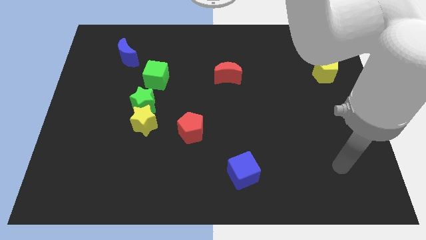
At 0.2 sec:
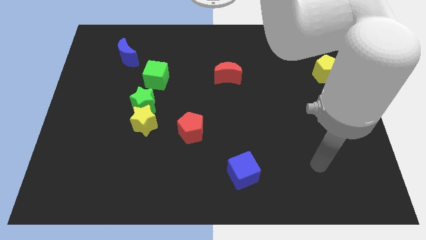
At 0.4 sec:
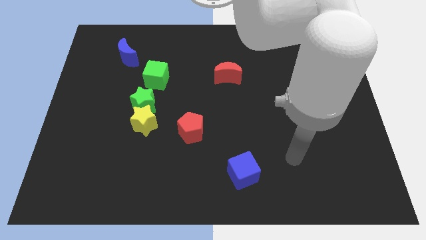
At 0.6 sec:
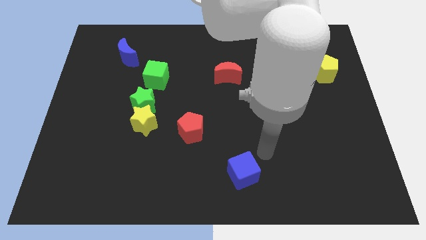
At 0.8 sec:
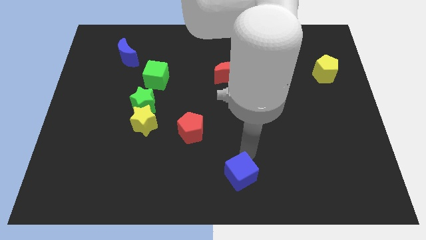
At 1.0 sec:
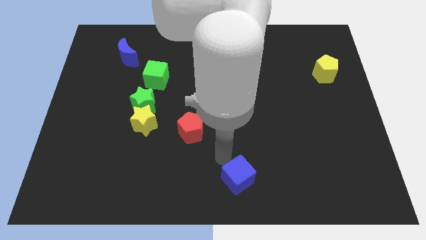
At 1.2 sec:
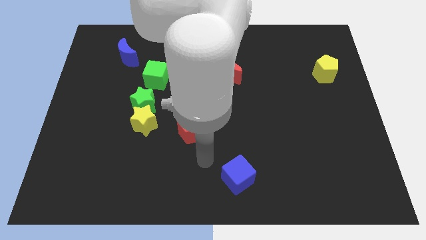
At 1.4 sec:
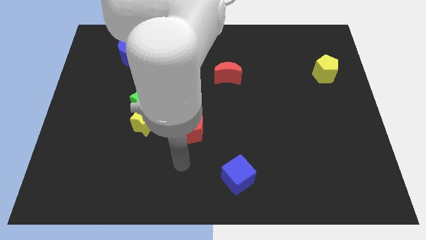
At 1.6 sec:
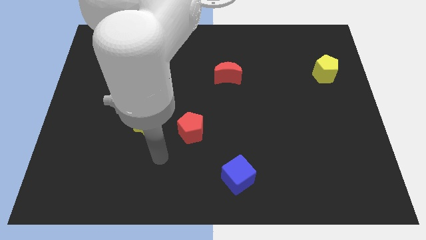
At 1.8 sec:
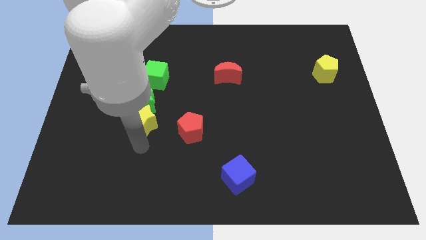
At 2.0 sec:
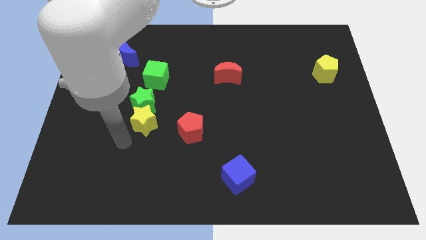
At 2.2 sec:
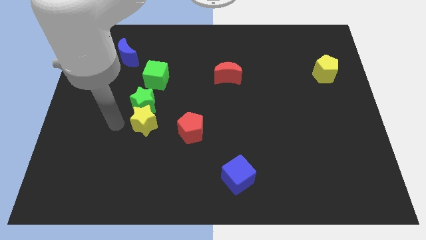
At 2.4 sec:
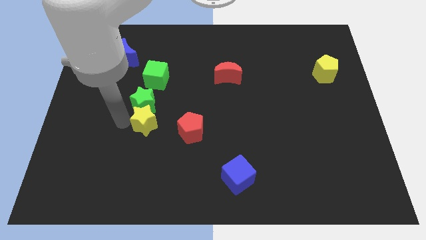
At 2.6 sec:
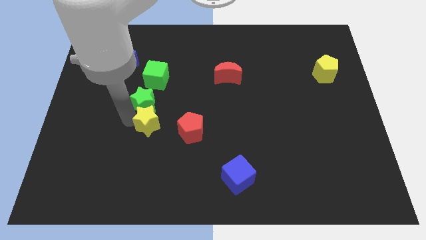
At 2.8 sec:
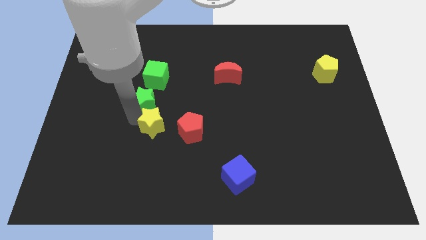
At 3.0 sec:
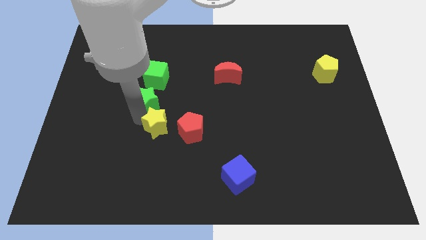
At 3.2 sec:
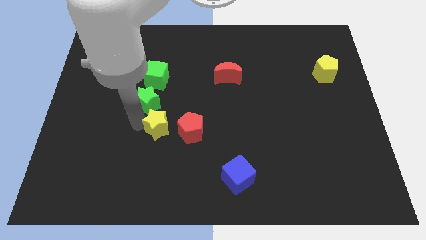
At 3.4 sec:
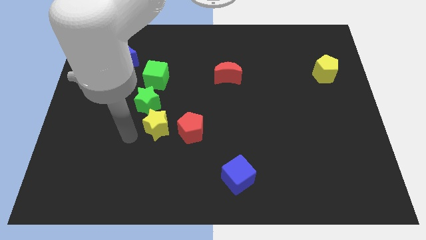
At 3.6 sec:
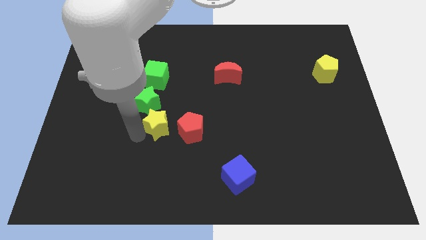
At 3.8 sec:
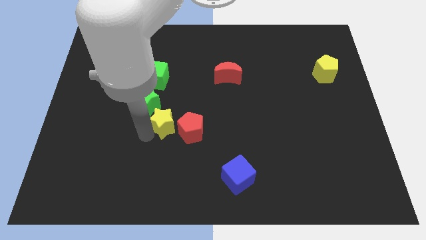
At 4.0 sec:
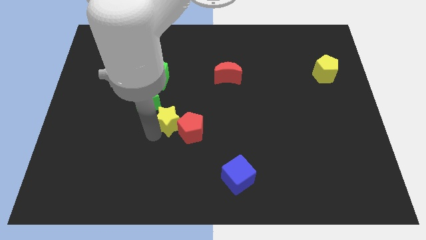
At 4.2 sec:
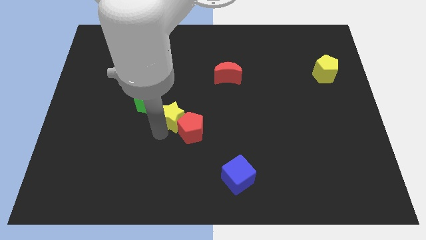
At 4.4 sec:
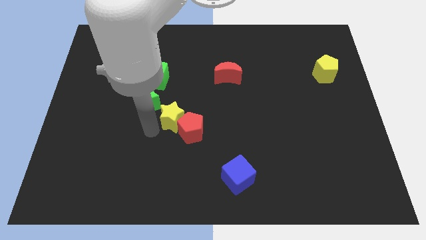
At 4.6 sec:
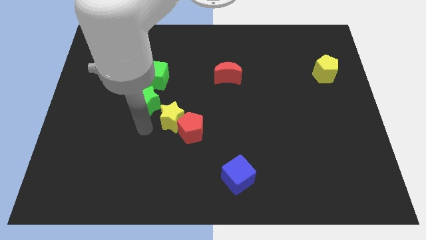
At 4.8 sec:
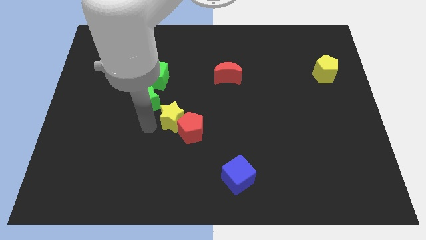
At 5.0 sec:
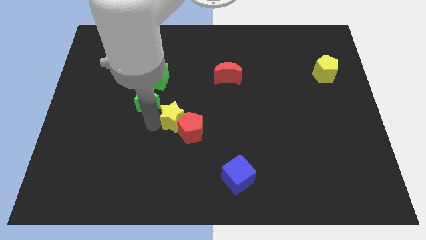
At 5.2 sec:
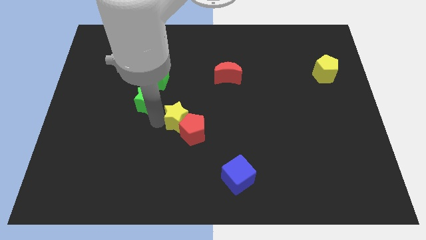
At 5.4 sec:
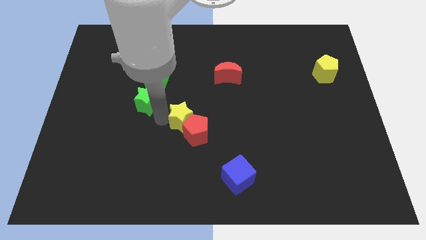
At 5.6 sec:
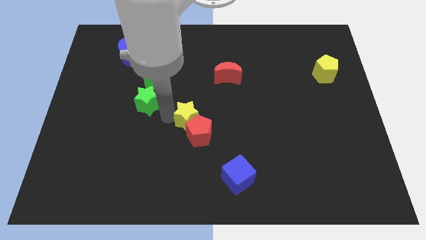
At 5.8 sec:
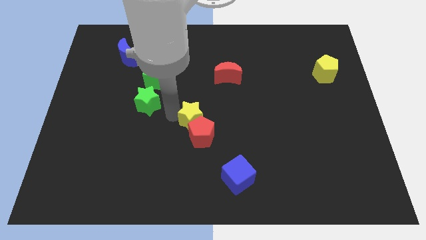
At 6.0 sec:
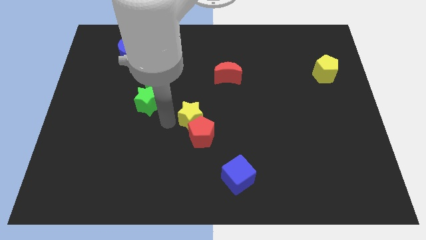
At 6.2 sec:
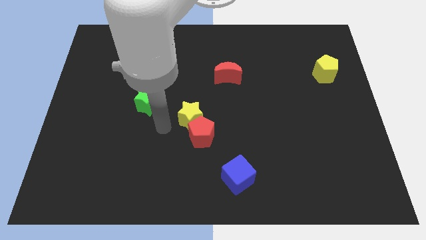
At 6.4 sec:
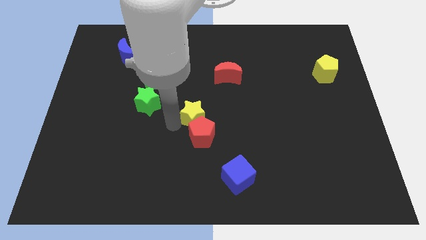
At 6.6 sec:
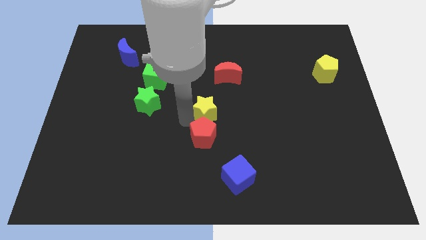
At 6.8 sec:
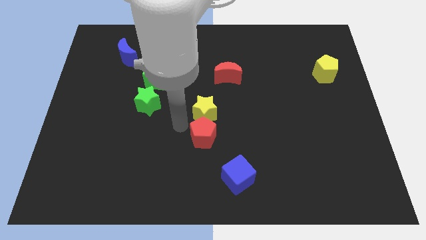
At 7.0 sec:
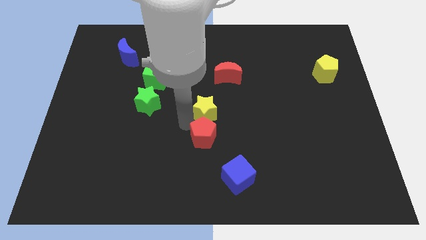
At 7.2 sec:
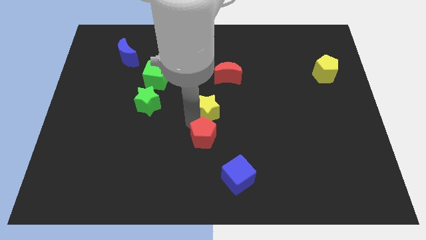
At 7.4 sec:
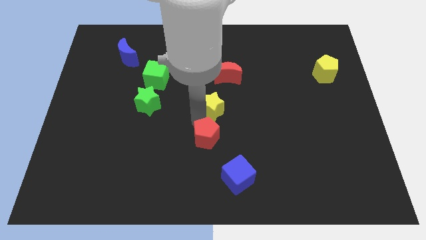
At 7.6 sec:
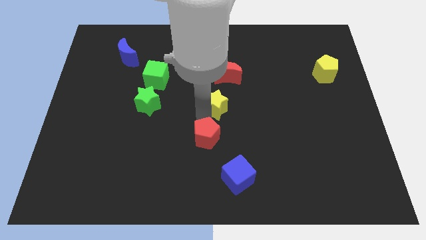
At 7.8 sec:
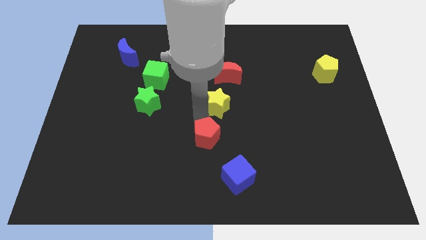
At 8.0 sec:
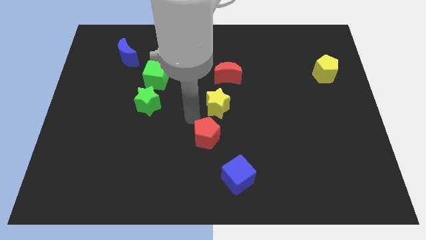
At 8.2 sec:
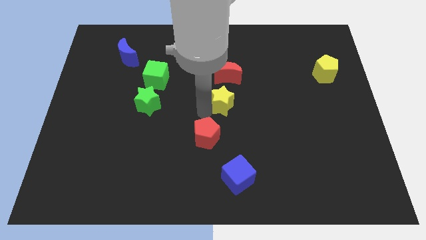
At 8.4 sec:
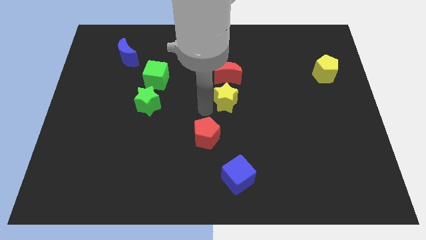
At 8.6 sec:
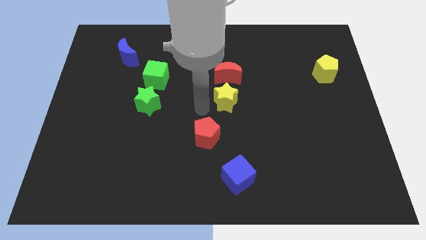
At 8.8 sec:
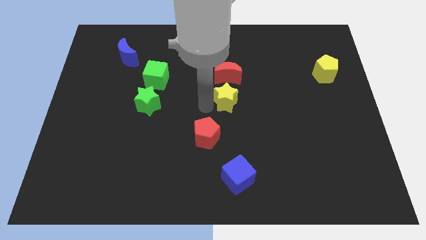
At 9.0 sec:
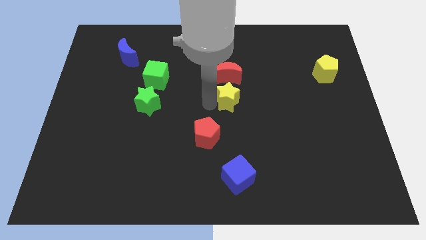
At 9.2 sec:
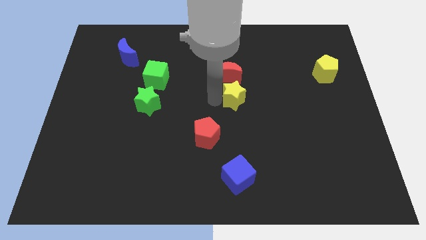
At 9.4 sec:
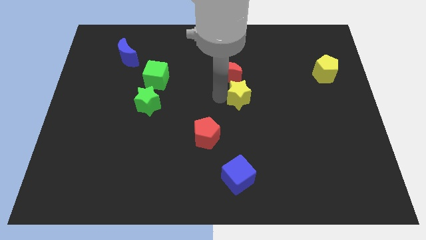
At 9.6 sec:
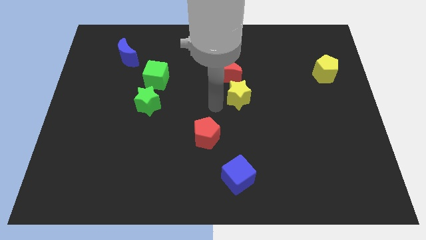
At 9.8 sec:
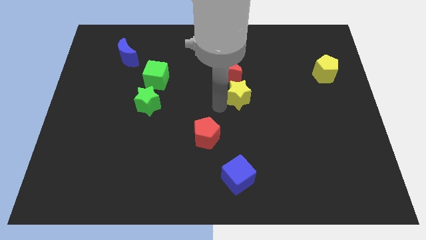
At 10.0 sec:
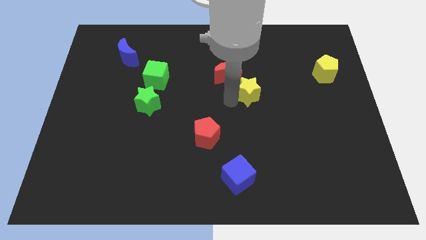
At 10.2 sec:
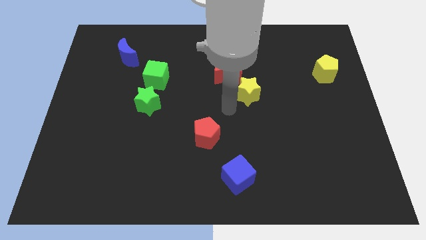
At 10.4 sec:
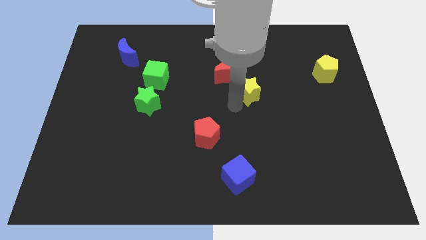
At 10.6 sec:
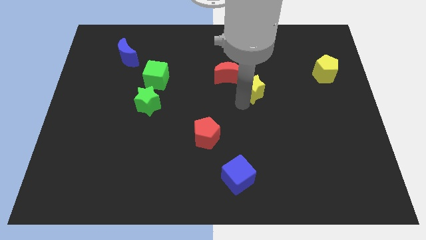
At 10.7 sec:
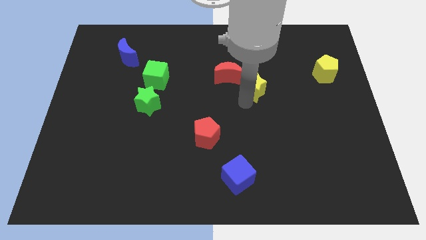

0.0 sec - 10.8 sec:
slide the yellow star to the right of the red moon

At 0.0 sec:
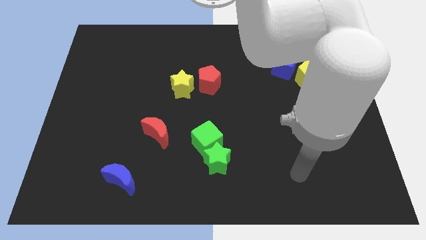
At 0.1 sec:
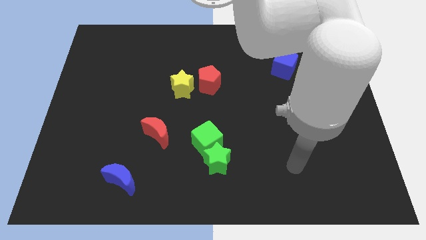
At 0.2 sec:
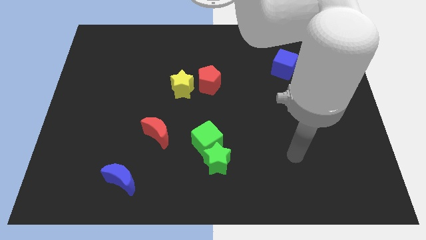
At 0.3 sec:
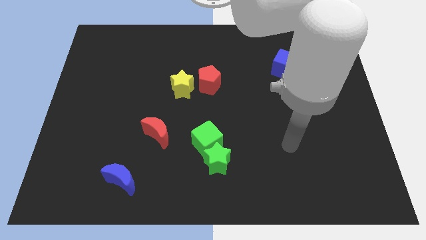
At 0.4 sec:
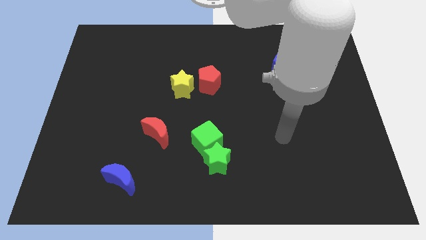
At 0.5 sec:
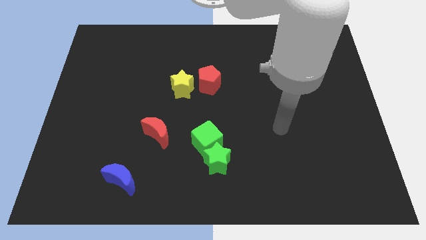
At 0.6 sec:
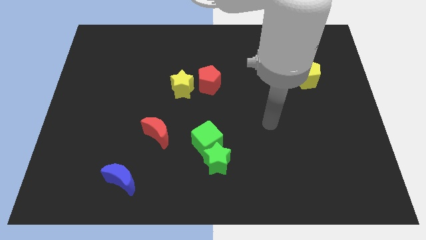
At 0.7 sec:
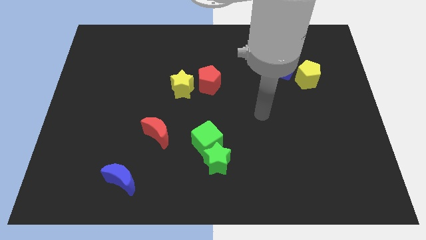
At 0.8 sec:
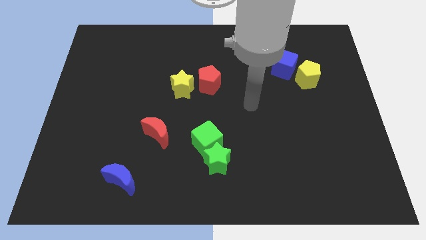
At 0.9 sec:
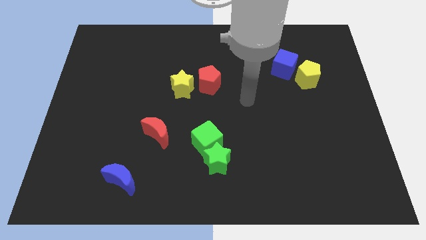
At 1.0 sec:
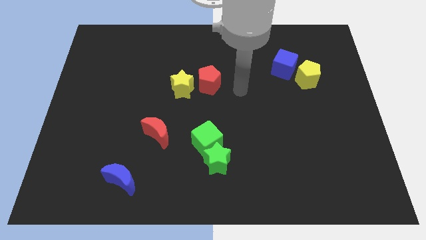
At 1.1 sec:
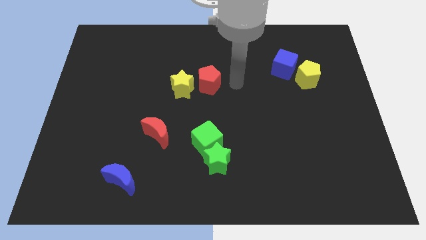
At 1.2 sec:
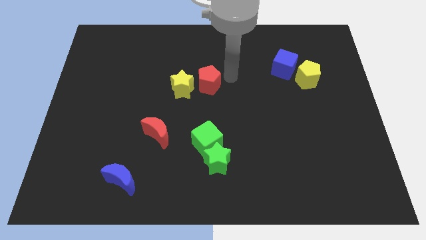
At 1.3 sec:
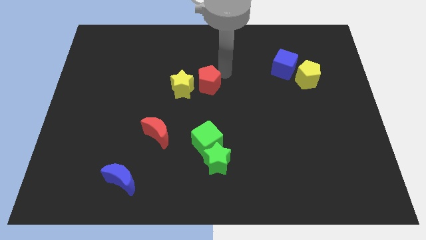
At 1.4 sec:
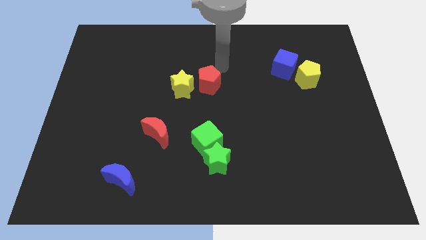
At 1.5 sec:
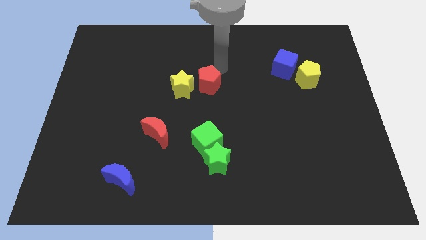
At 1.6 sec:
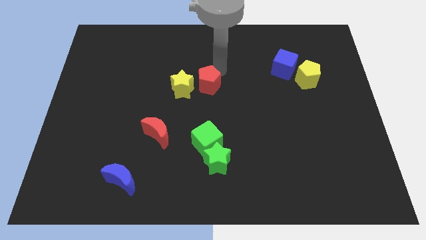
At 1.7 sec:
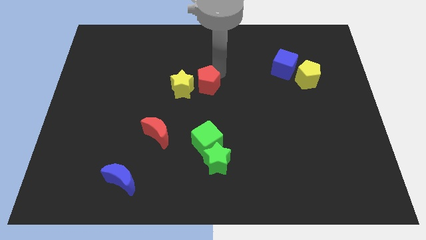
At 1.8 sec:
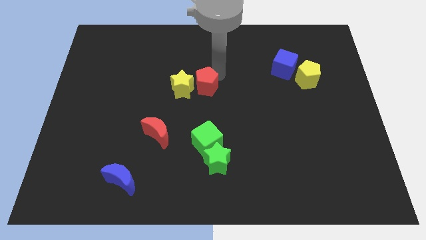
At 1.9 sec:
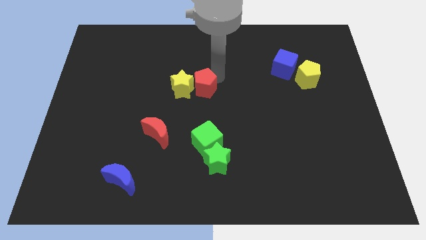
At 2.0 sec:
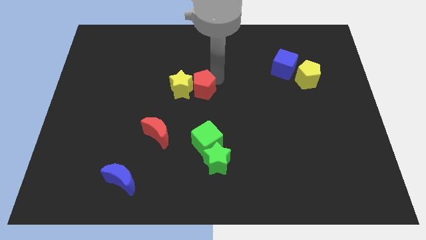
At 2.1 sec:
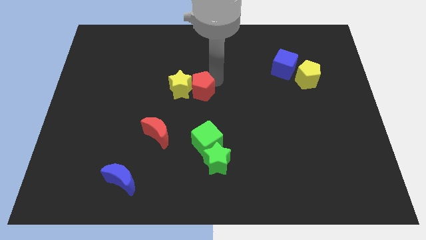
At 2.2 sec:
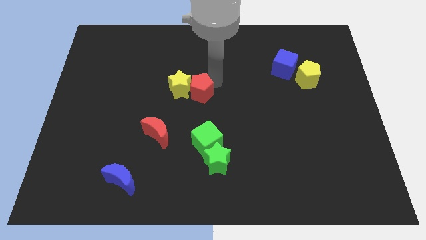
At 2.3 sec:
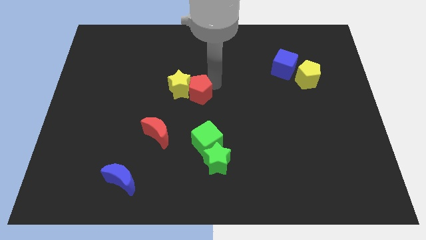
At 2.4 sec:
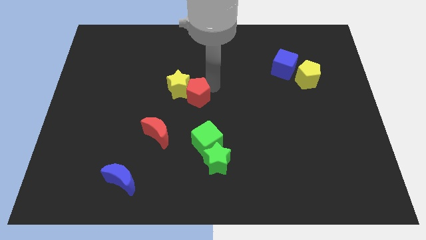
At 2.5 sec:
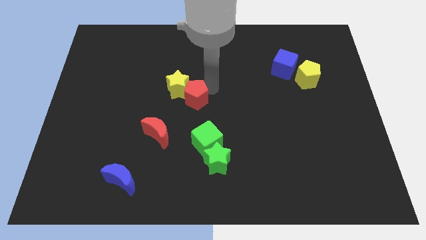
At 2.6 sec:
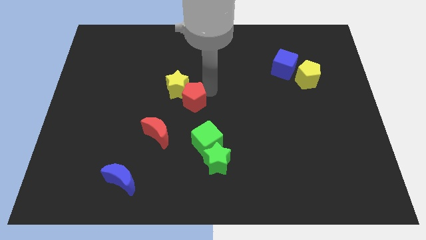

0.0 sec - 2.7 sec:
push the red pentagon diagonally up and to the right of the red moon
